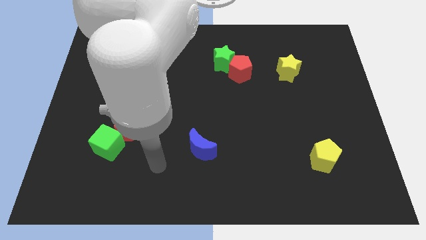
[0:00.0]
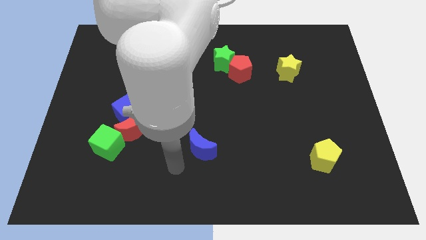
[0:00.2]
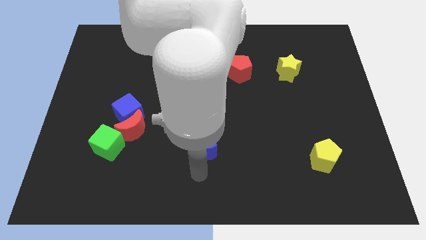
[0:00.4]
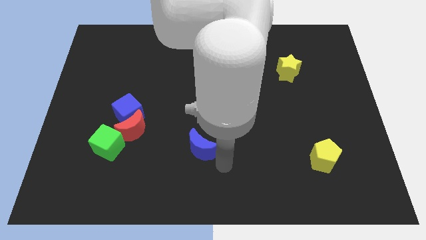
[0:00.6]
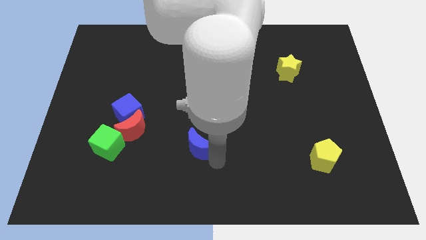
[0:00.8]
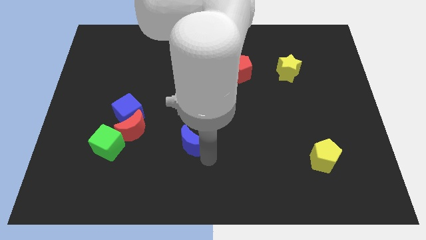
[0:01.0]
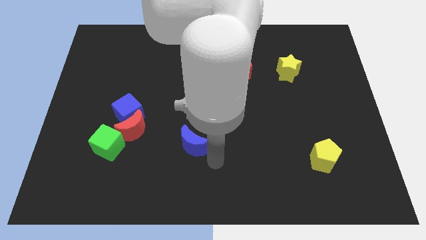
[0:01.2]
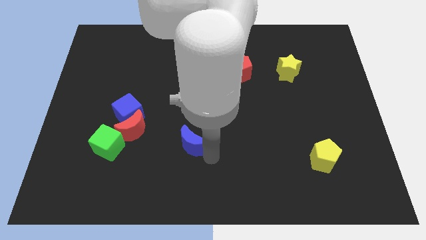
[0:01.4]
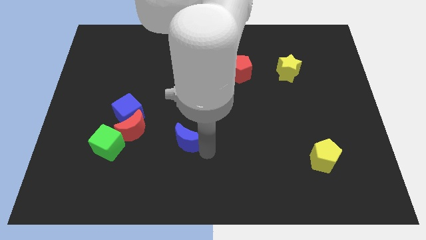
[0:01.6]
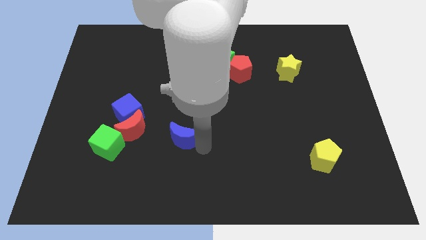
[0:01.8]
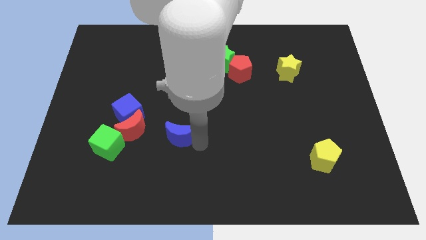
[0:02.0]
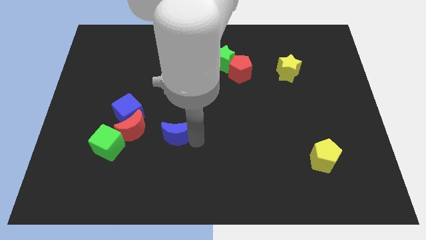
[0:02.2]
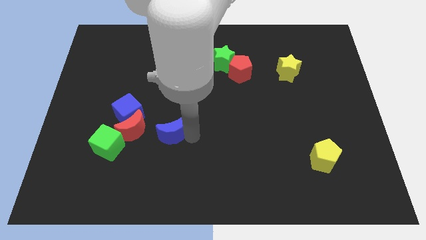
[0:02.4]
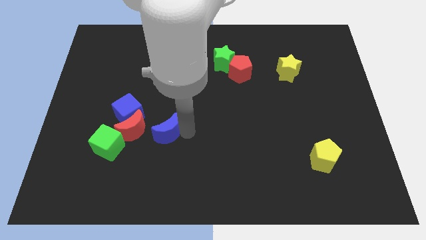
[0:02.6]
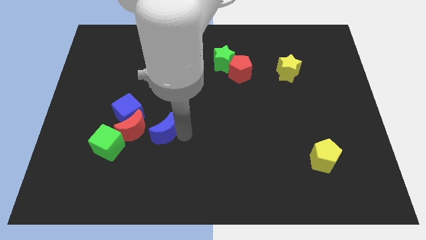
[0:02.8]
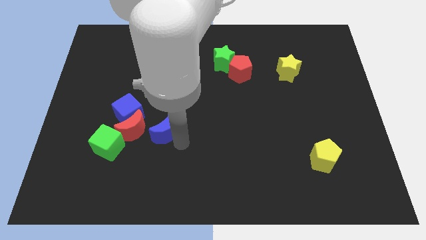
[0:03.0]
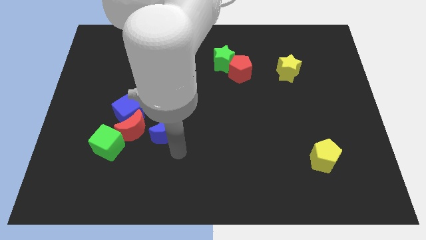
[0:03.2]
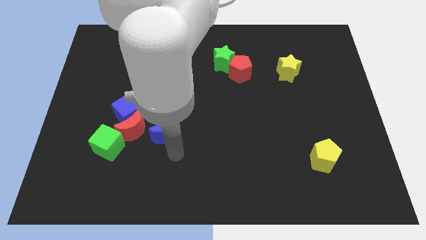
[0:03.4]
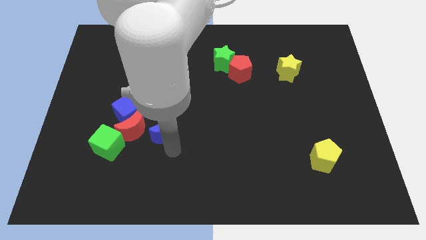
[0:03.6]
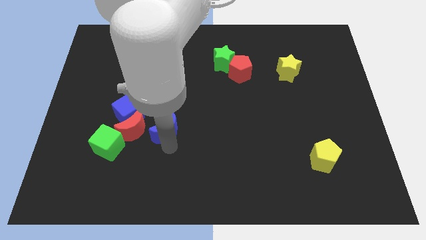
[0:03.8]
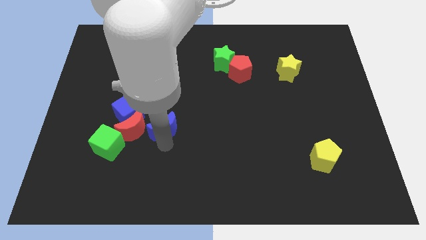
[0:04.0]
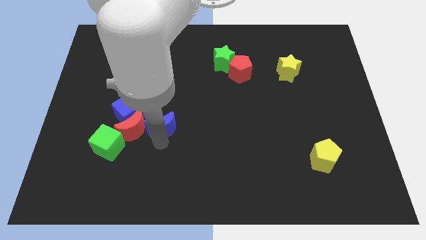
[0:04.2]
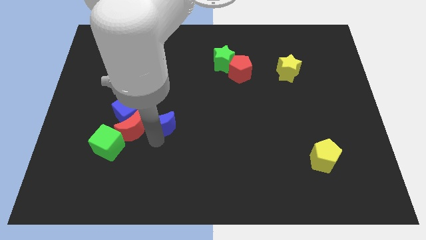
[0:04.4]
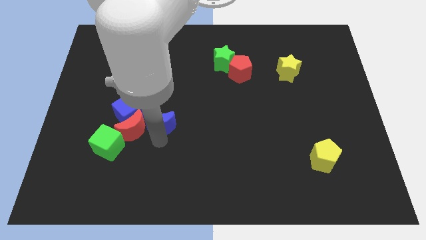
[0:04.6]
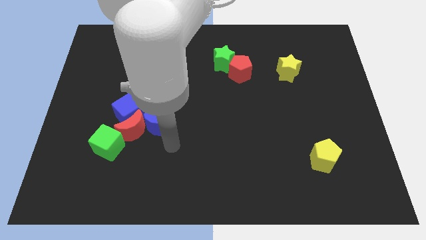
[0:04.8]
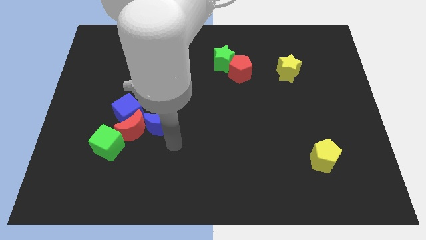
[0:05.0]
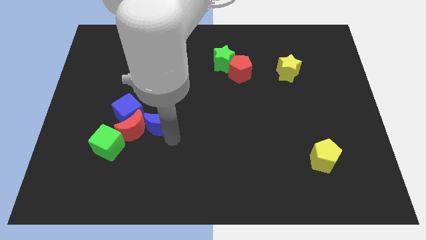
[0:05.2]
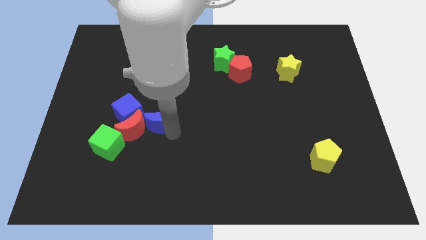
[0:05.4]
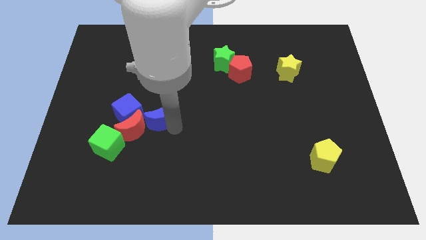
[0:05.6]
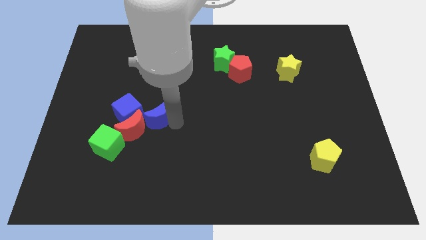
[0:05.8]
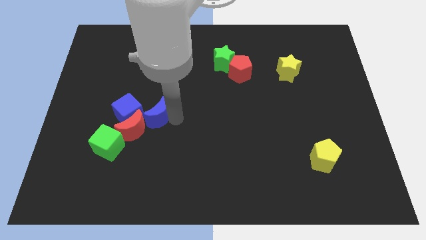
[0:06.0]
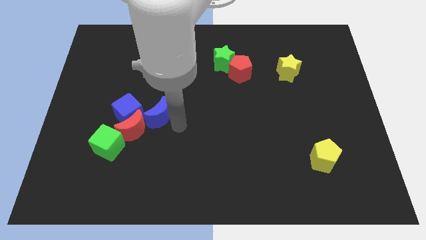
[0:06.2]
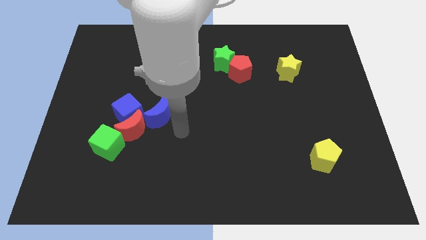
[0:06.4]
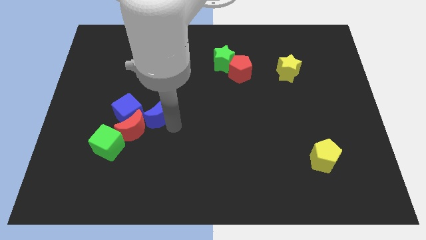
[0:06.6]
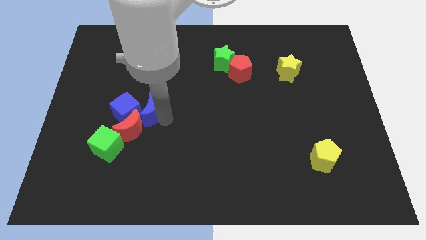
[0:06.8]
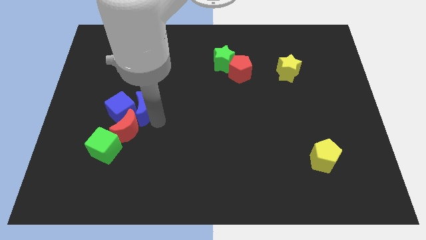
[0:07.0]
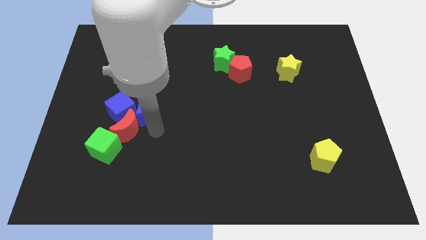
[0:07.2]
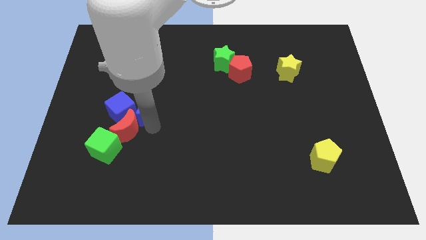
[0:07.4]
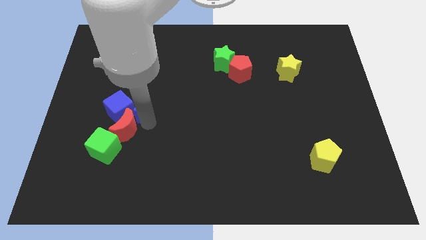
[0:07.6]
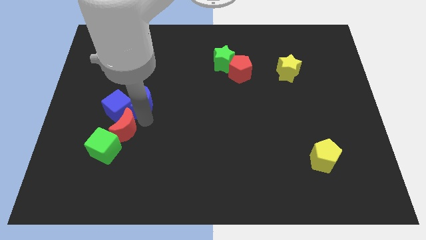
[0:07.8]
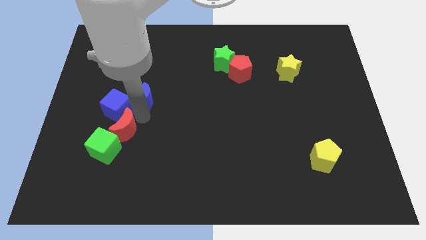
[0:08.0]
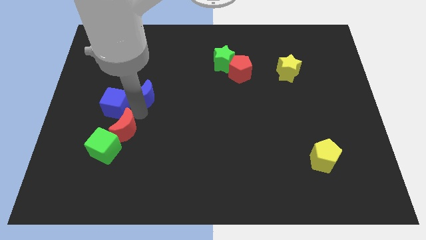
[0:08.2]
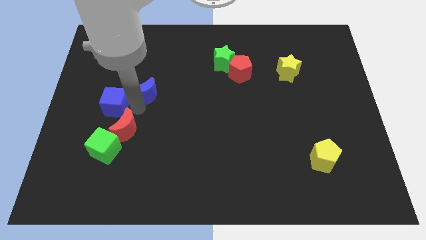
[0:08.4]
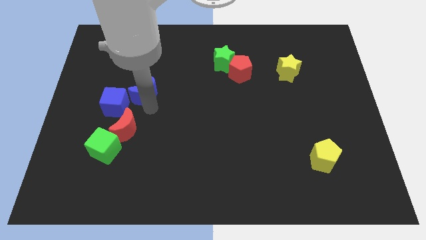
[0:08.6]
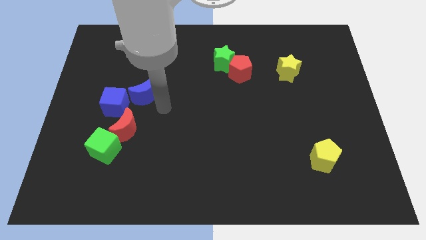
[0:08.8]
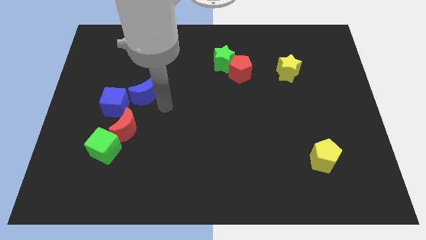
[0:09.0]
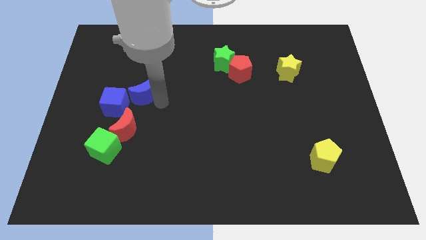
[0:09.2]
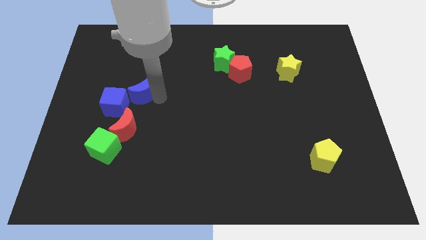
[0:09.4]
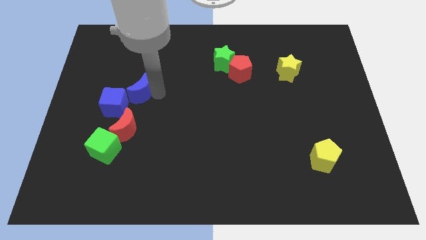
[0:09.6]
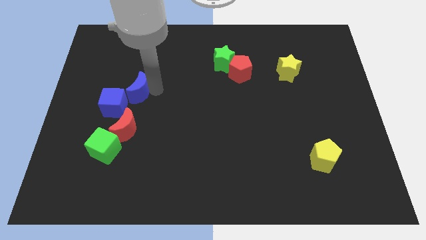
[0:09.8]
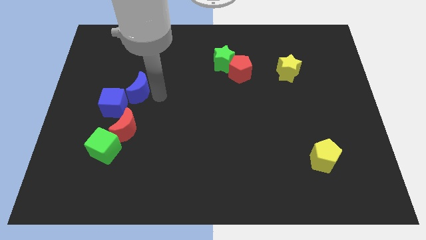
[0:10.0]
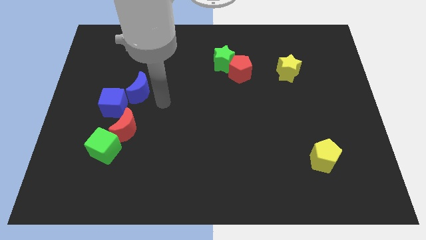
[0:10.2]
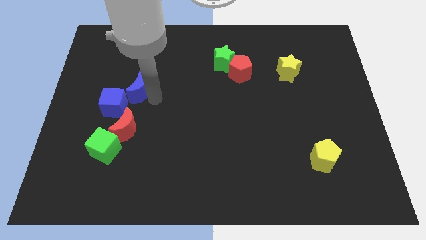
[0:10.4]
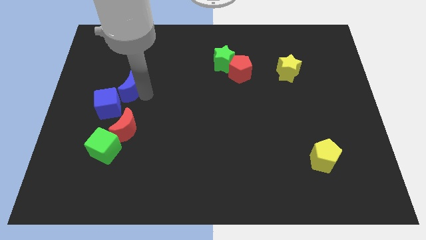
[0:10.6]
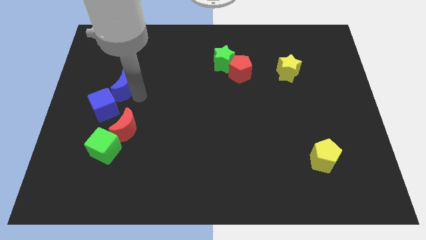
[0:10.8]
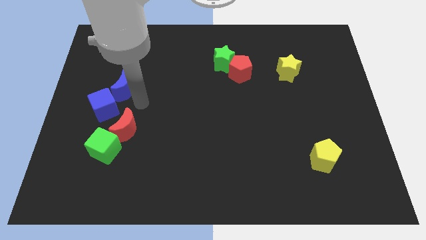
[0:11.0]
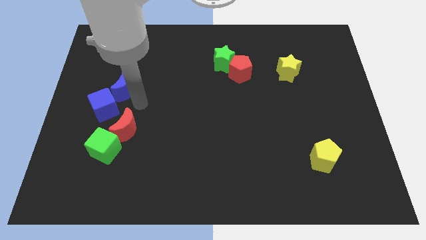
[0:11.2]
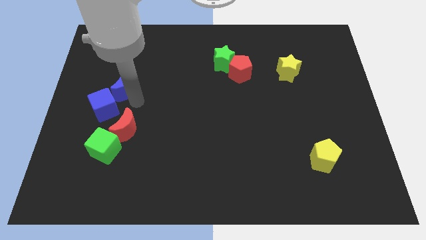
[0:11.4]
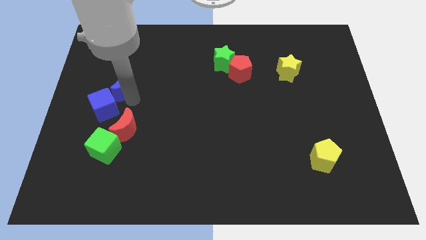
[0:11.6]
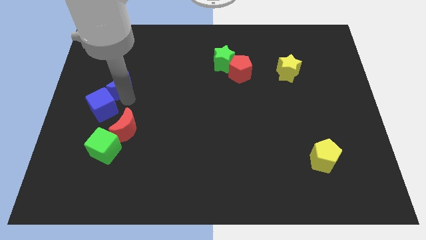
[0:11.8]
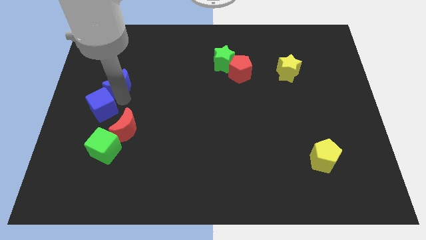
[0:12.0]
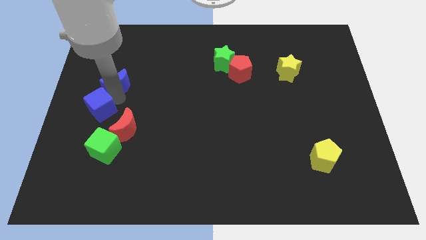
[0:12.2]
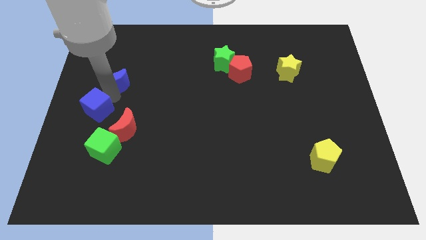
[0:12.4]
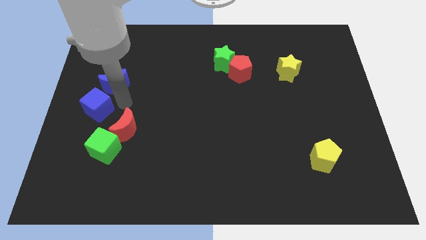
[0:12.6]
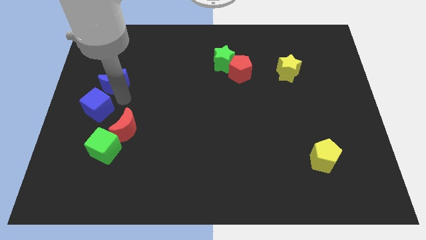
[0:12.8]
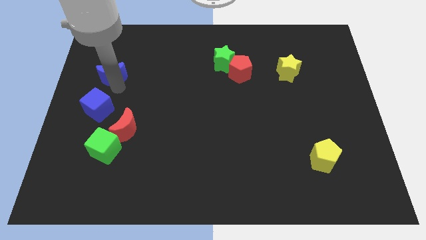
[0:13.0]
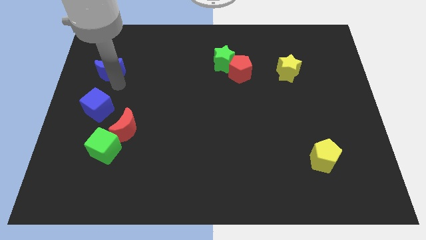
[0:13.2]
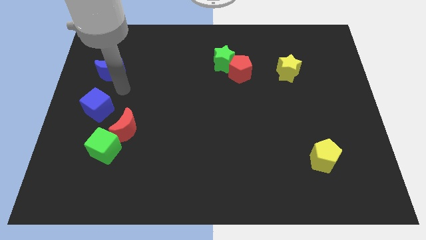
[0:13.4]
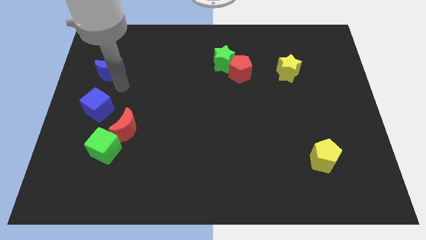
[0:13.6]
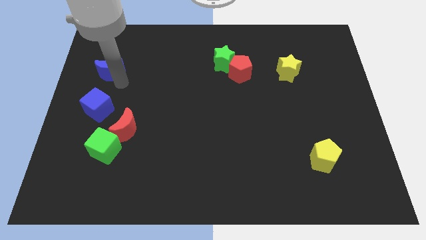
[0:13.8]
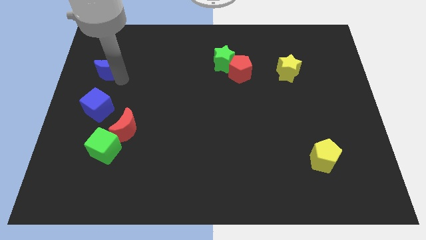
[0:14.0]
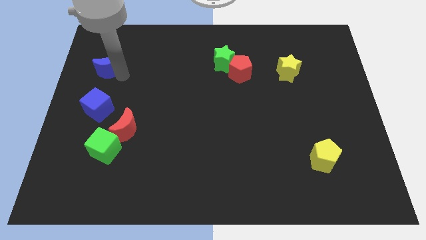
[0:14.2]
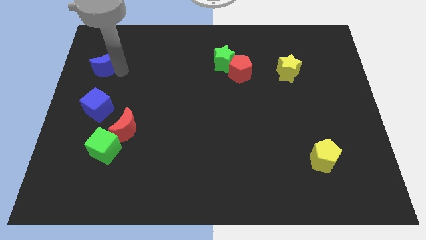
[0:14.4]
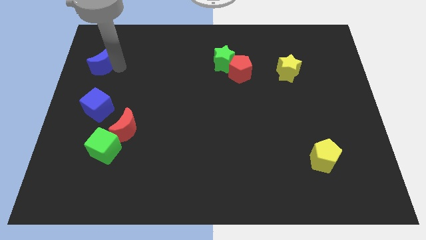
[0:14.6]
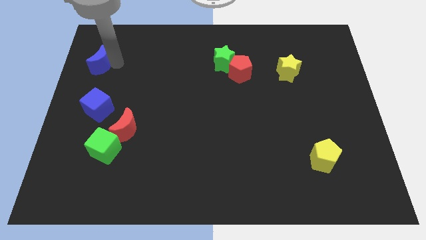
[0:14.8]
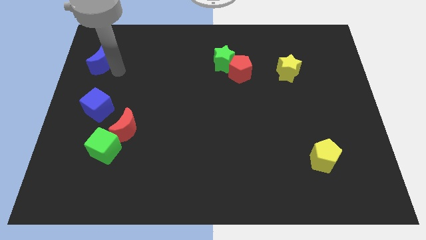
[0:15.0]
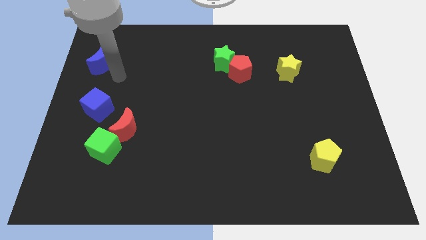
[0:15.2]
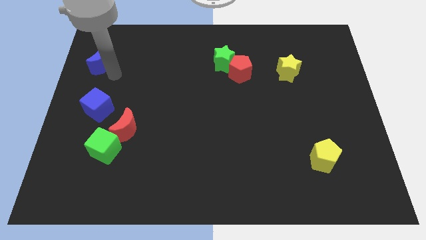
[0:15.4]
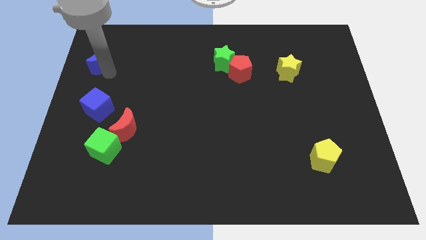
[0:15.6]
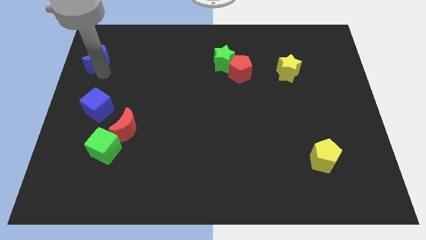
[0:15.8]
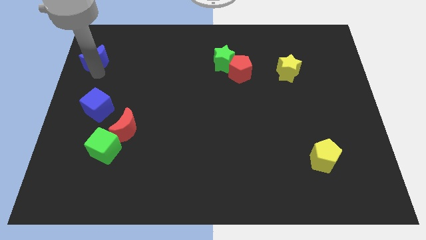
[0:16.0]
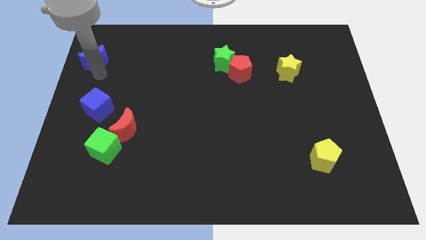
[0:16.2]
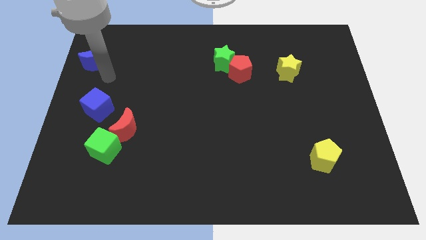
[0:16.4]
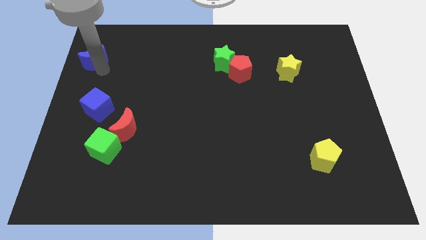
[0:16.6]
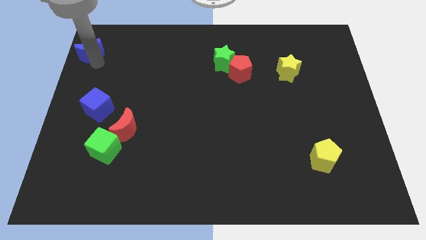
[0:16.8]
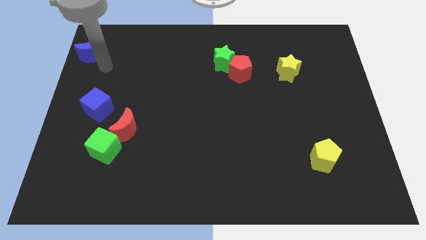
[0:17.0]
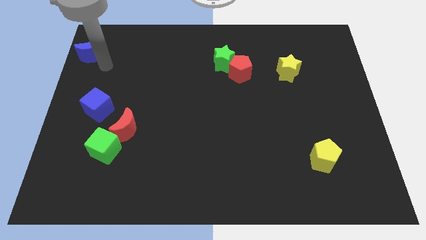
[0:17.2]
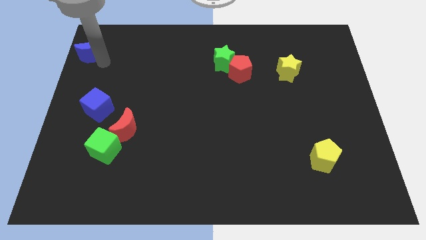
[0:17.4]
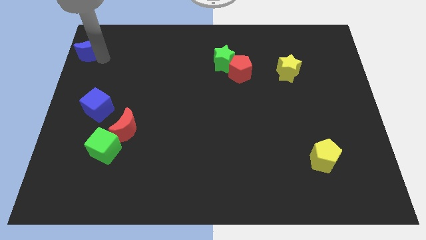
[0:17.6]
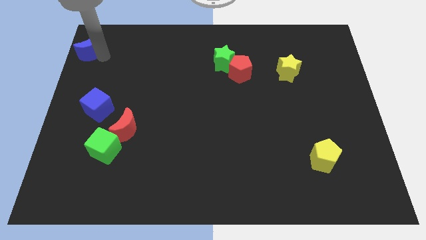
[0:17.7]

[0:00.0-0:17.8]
push the blue moon to the top left
